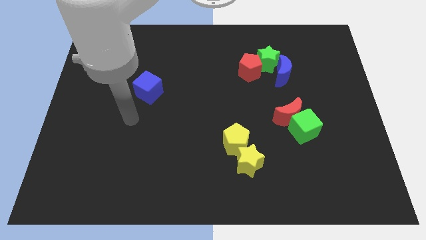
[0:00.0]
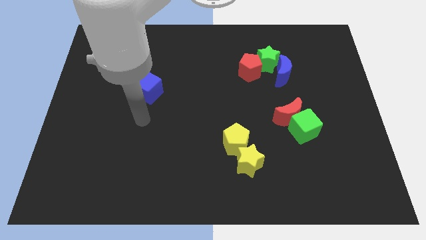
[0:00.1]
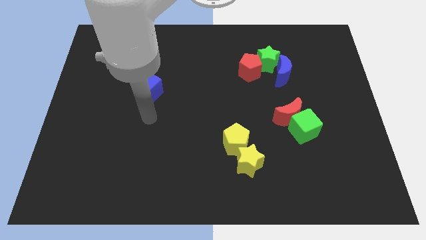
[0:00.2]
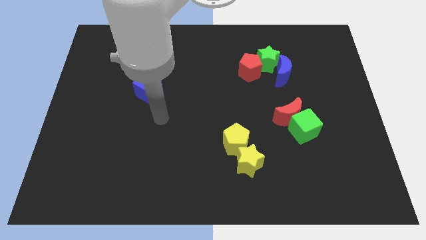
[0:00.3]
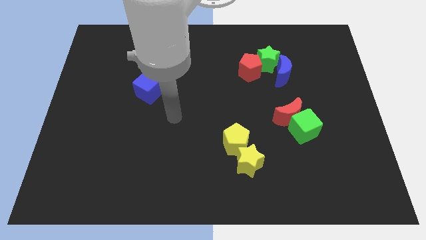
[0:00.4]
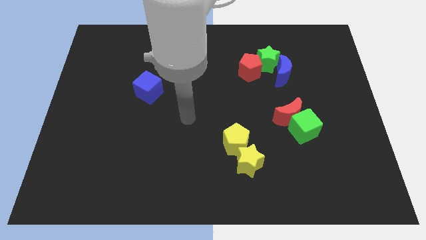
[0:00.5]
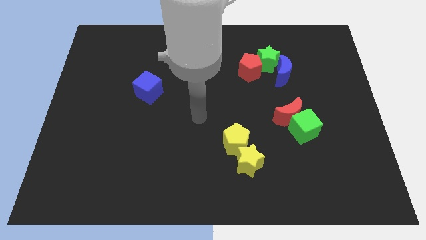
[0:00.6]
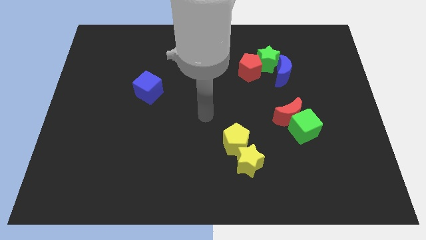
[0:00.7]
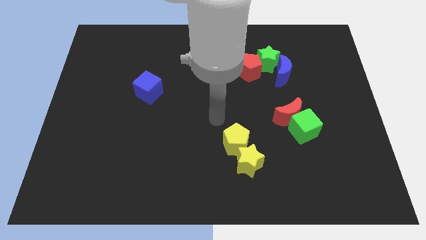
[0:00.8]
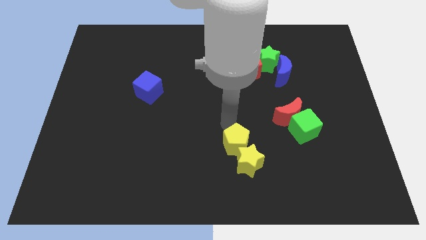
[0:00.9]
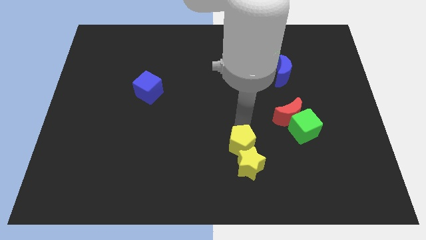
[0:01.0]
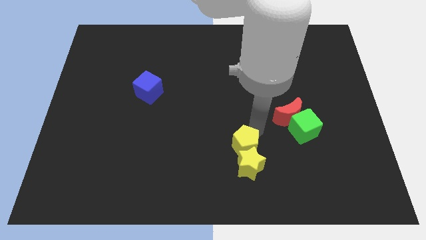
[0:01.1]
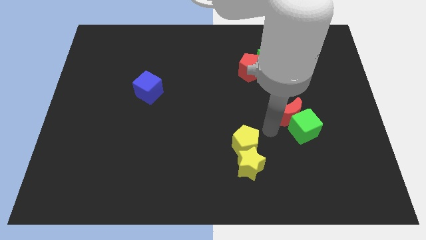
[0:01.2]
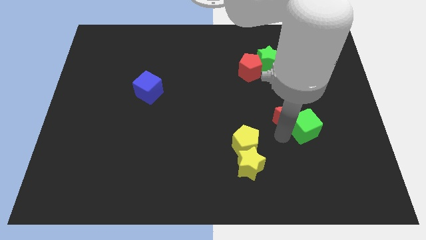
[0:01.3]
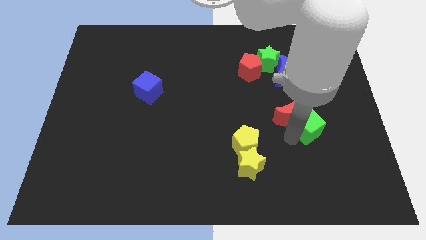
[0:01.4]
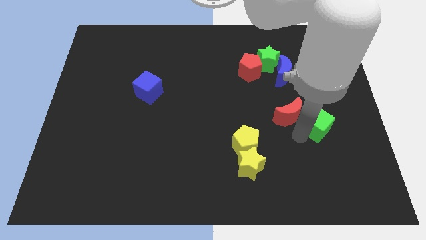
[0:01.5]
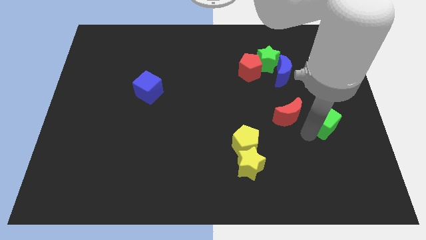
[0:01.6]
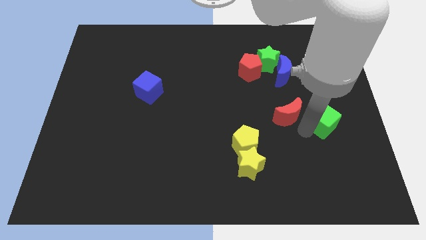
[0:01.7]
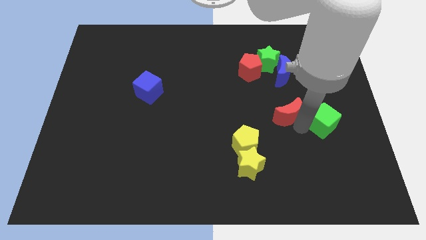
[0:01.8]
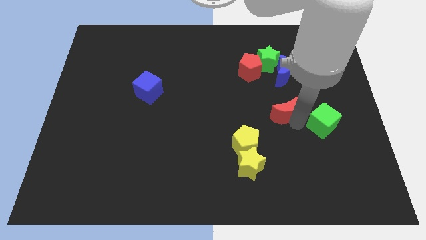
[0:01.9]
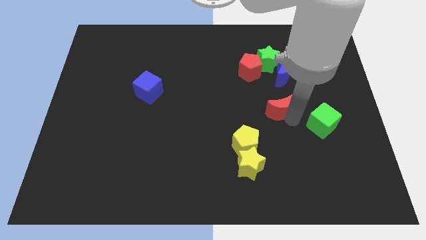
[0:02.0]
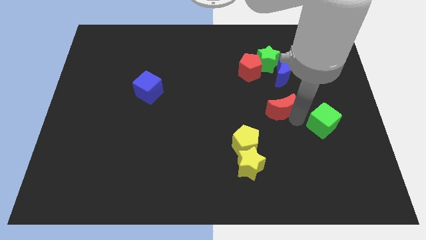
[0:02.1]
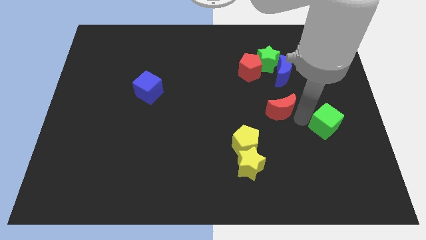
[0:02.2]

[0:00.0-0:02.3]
separate the red moon from the green cube

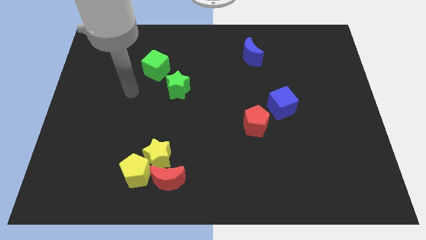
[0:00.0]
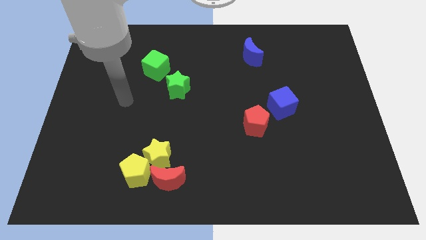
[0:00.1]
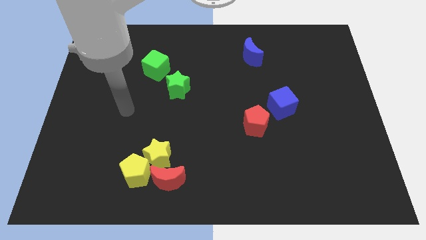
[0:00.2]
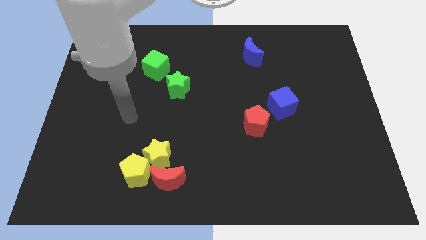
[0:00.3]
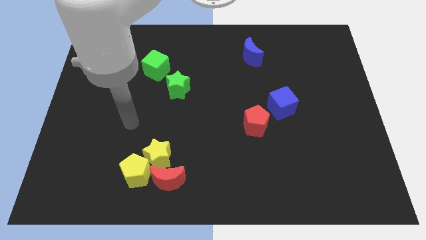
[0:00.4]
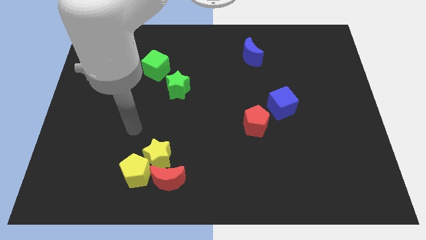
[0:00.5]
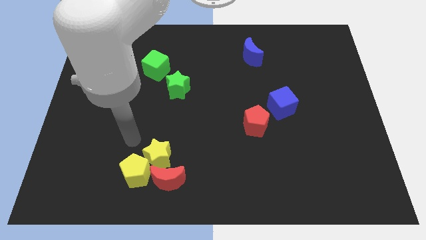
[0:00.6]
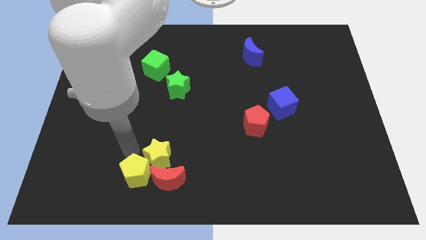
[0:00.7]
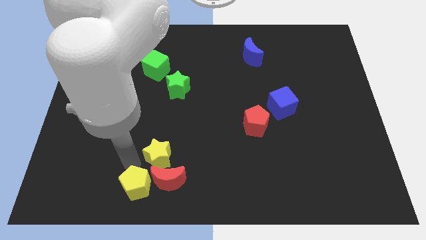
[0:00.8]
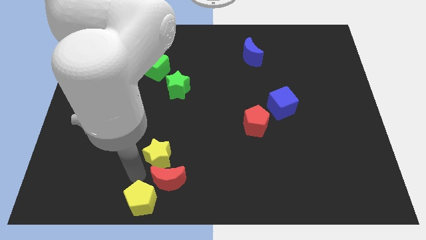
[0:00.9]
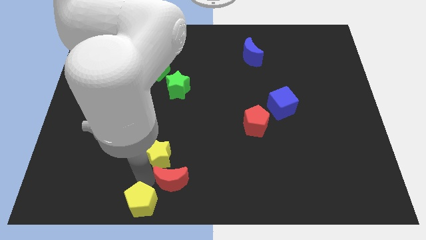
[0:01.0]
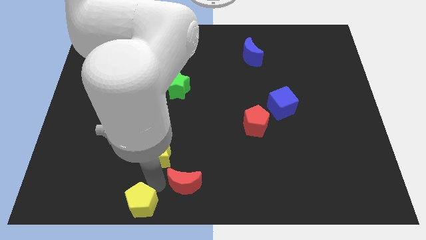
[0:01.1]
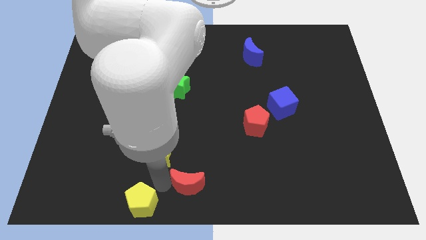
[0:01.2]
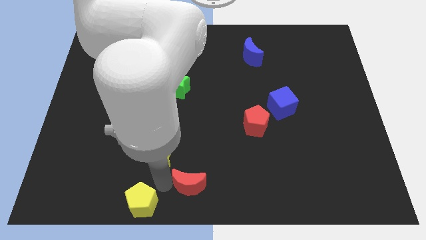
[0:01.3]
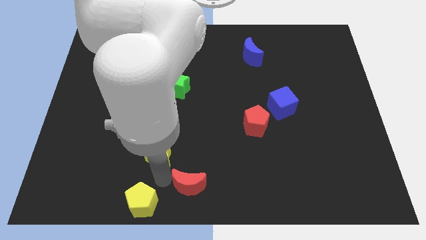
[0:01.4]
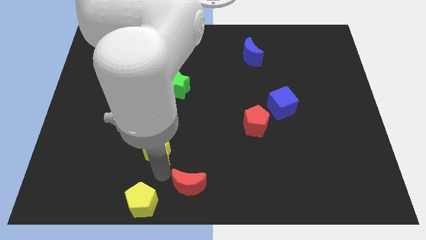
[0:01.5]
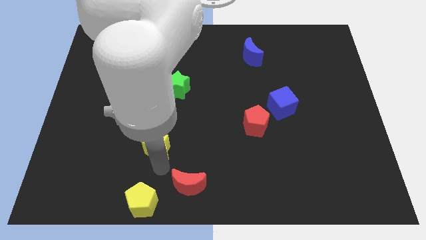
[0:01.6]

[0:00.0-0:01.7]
separate the yellow star from the yellow pentagon and red moon

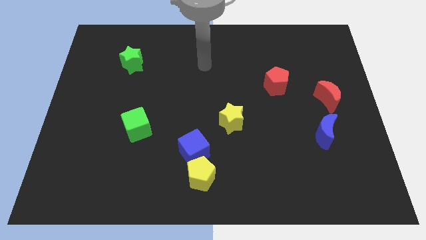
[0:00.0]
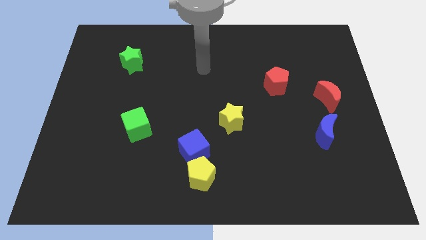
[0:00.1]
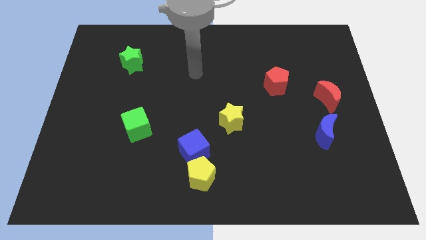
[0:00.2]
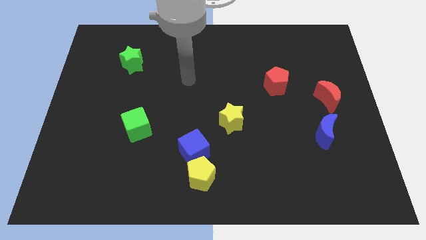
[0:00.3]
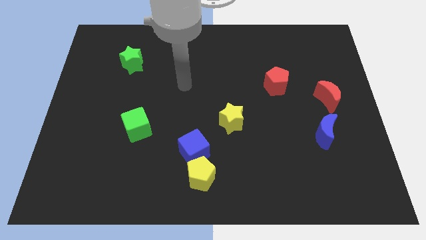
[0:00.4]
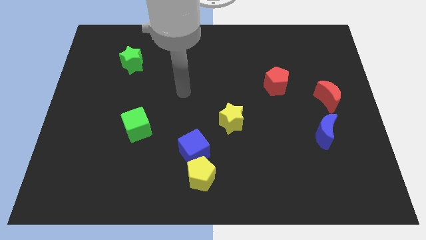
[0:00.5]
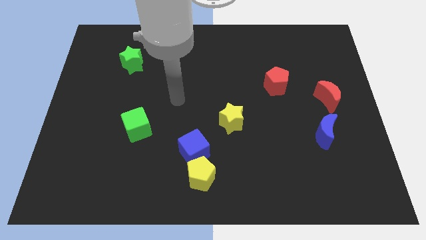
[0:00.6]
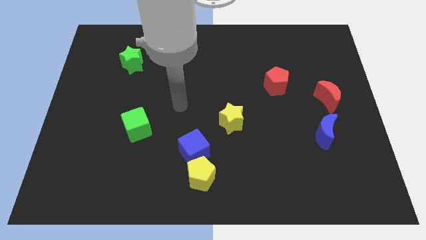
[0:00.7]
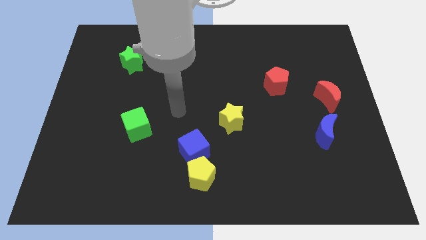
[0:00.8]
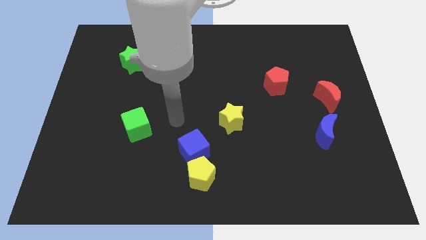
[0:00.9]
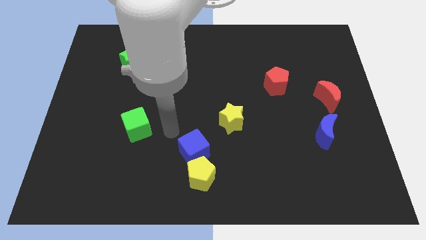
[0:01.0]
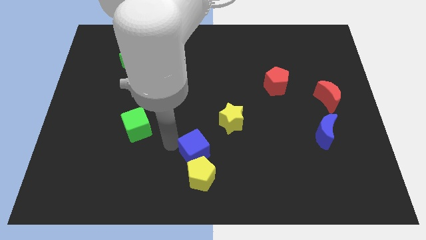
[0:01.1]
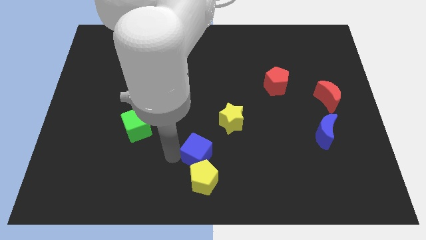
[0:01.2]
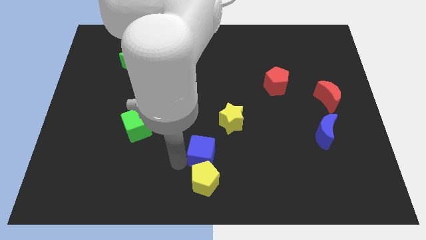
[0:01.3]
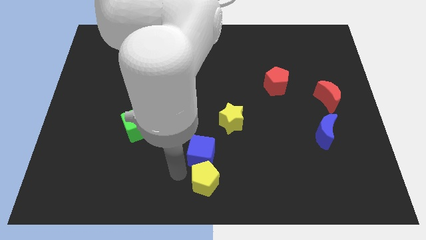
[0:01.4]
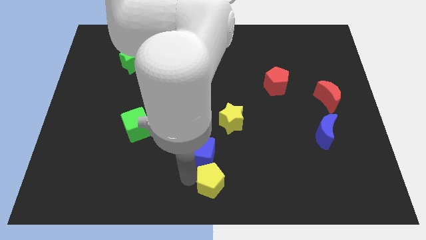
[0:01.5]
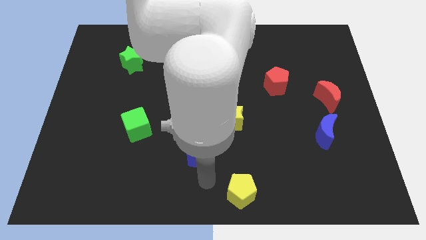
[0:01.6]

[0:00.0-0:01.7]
pull the blue cube apart from the yellow pentagon

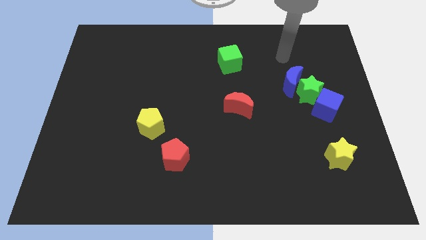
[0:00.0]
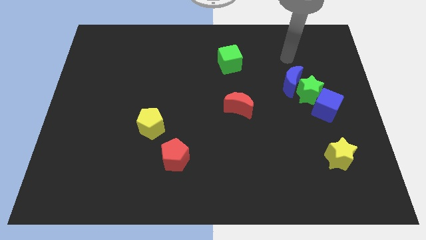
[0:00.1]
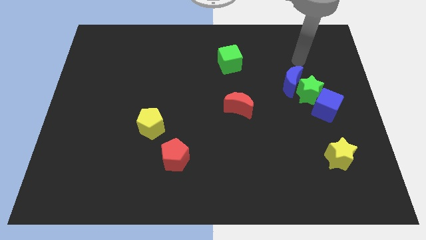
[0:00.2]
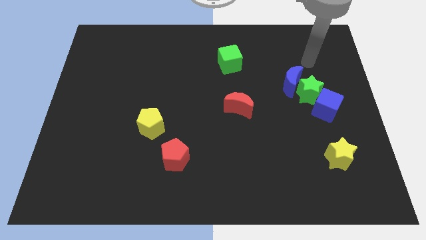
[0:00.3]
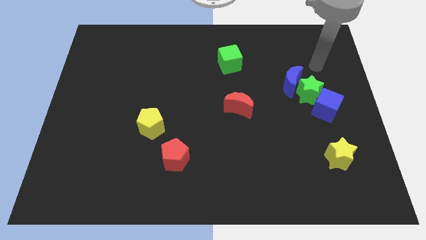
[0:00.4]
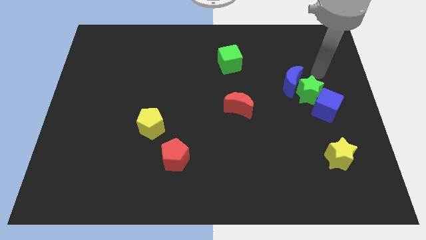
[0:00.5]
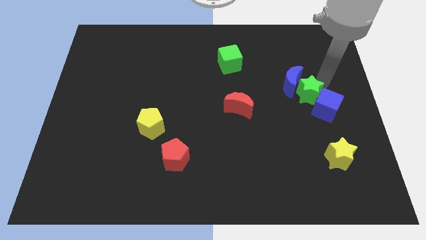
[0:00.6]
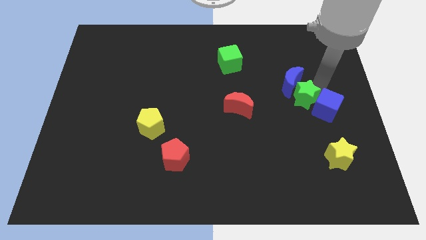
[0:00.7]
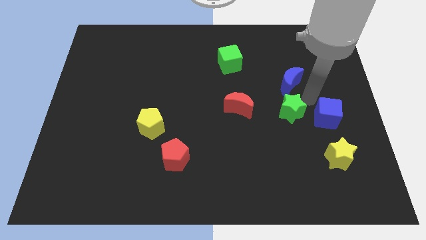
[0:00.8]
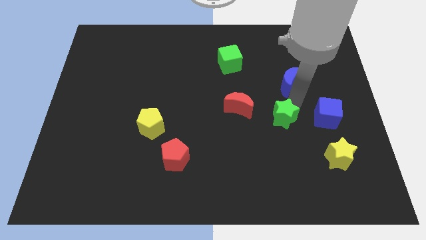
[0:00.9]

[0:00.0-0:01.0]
separate the blue moon from the green star

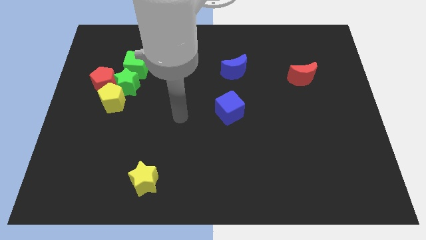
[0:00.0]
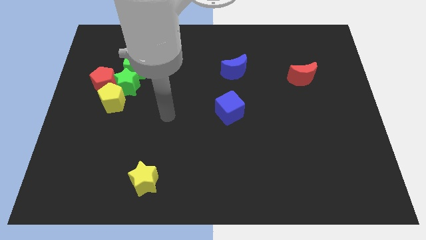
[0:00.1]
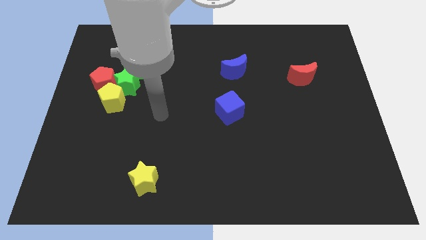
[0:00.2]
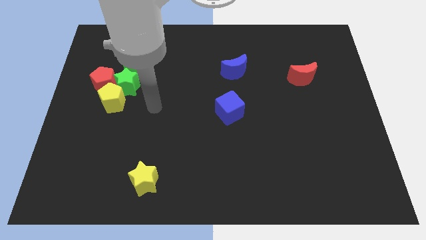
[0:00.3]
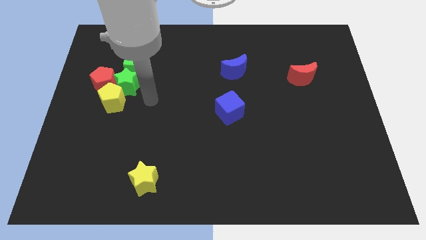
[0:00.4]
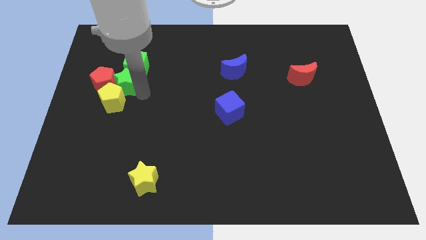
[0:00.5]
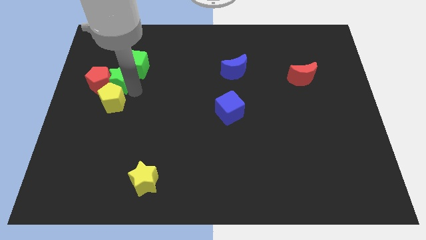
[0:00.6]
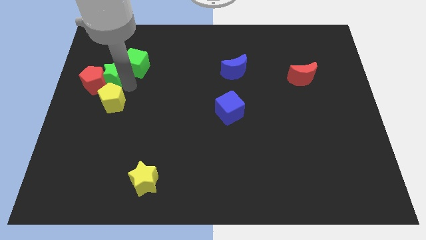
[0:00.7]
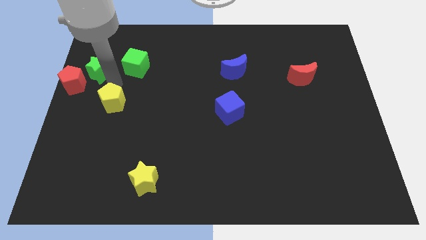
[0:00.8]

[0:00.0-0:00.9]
move the yellow pentagon away from the green star and red pentagon

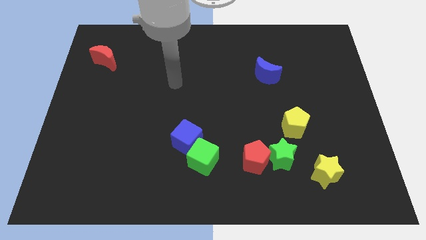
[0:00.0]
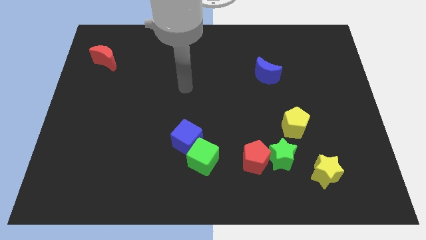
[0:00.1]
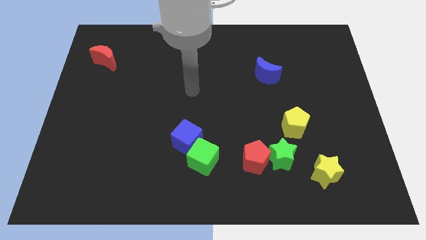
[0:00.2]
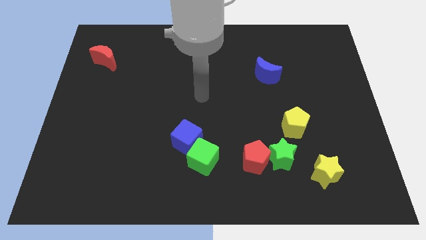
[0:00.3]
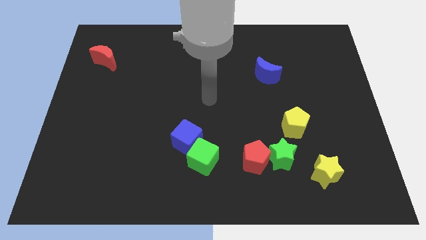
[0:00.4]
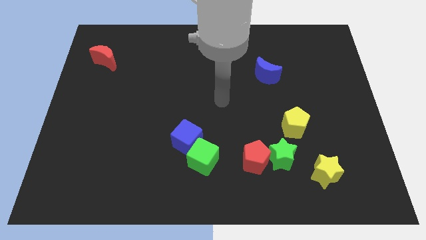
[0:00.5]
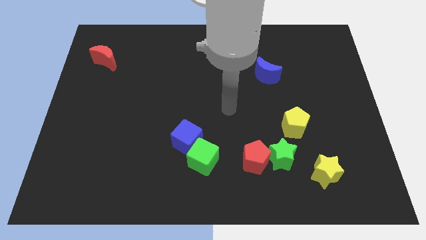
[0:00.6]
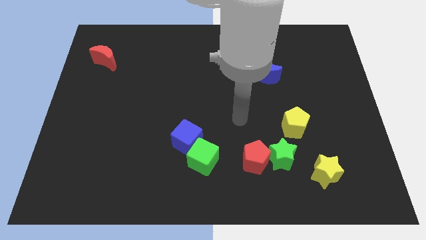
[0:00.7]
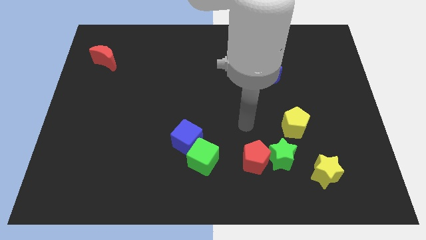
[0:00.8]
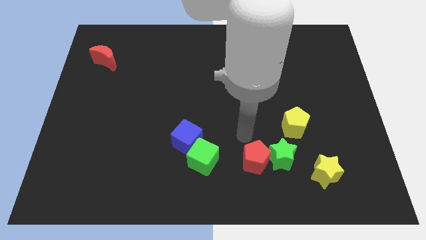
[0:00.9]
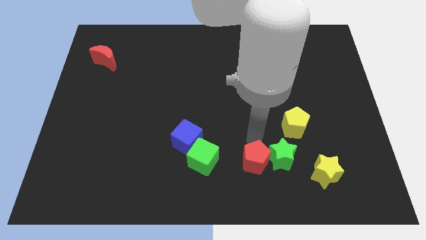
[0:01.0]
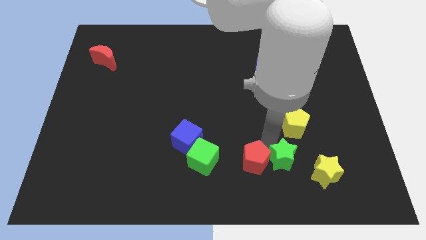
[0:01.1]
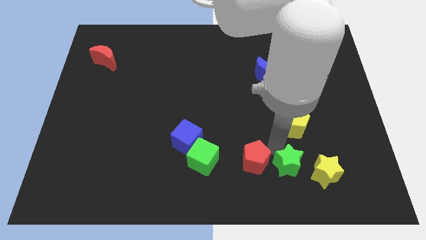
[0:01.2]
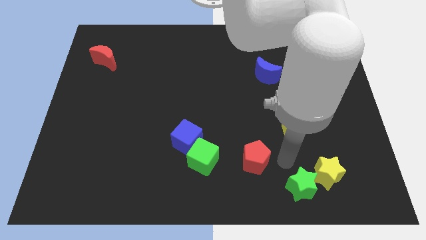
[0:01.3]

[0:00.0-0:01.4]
move the red pentagon away from the green star

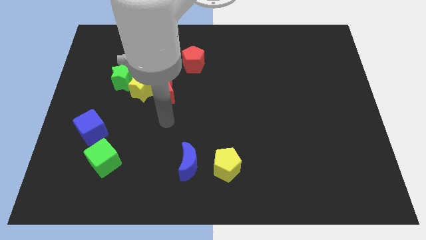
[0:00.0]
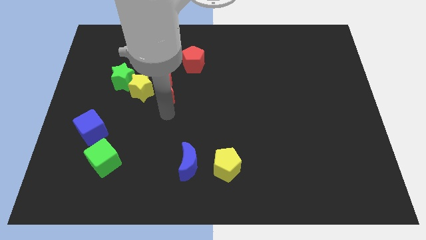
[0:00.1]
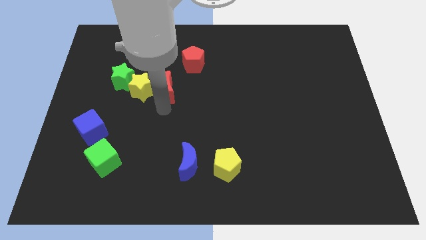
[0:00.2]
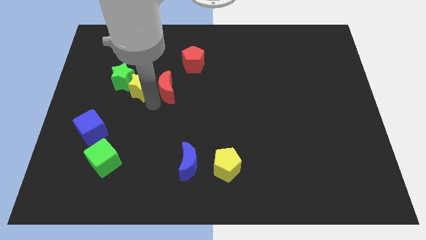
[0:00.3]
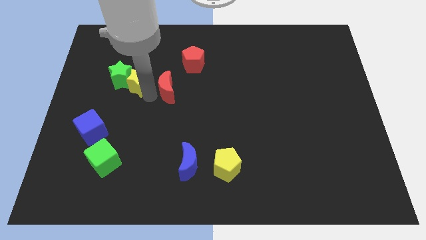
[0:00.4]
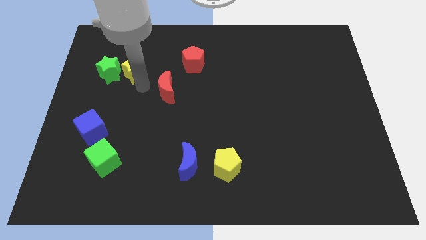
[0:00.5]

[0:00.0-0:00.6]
move the red moon away from the yellow star
